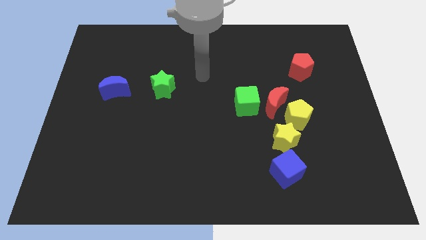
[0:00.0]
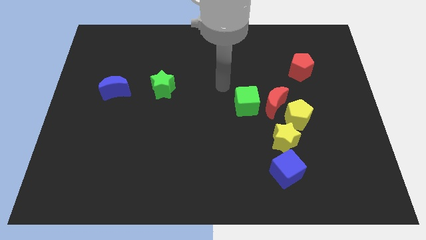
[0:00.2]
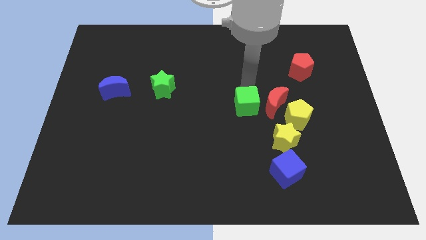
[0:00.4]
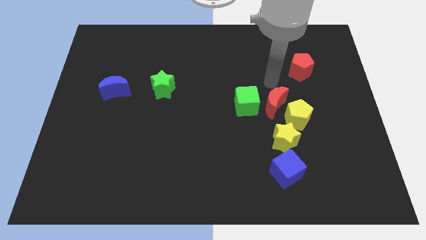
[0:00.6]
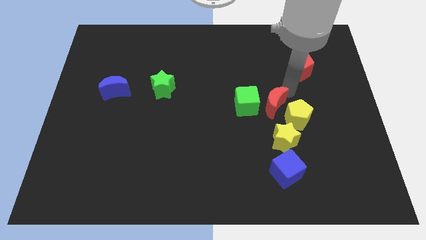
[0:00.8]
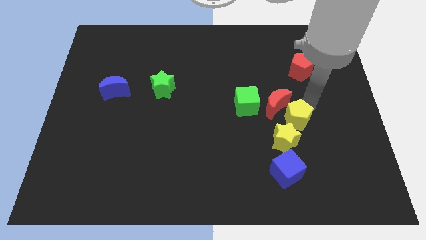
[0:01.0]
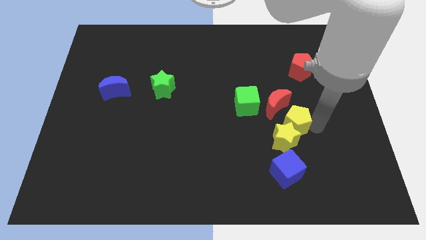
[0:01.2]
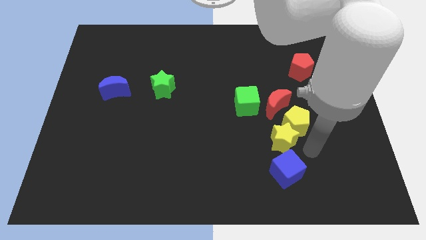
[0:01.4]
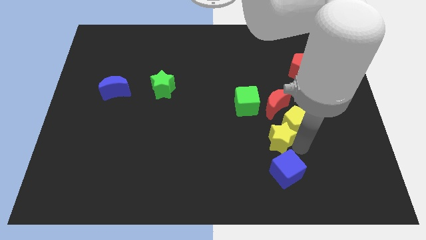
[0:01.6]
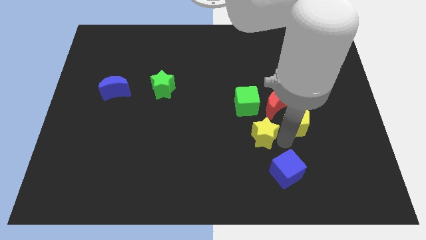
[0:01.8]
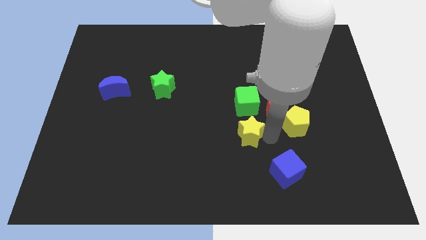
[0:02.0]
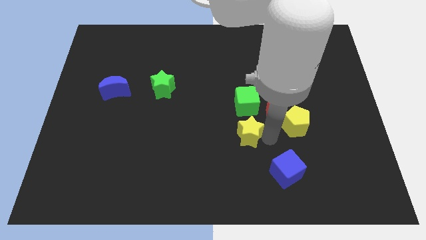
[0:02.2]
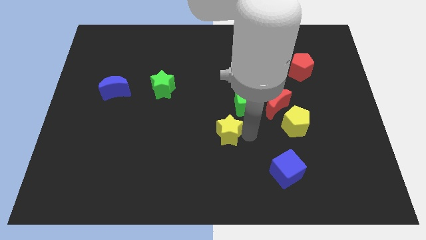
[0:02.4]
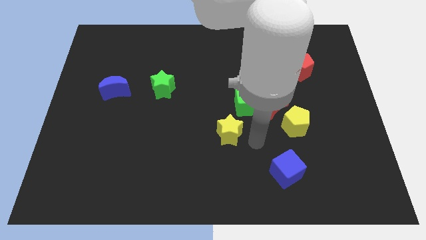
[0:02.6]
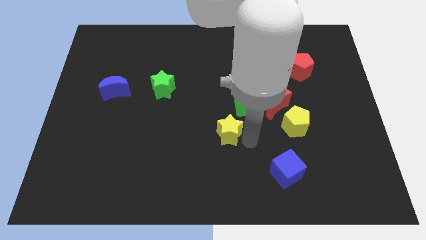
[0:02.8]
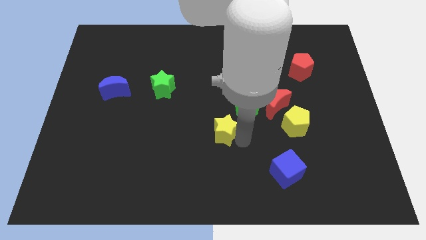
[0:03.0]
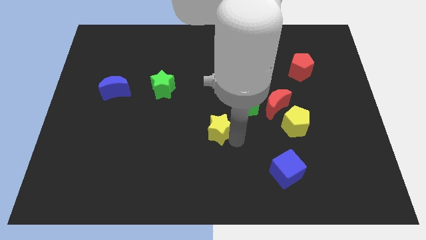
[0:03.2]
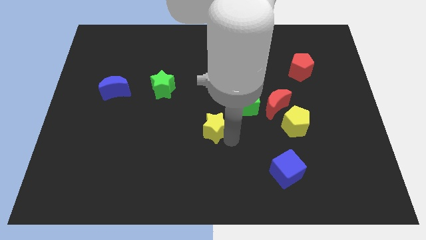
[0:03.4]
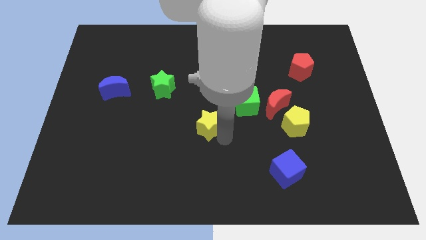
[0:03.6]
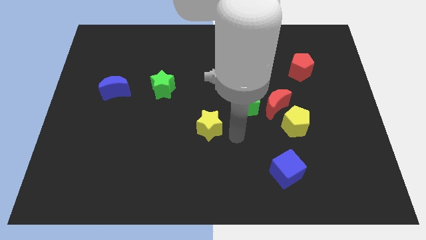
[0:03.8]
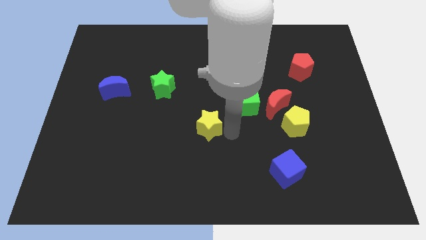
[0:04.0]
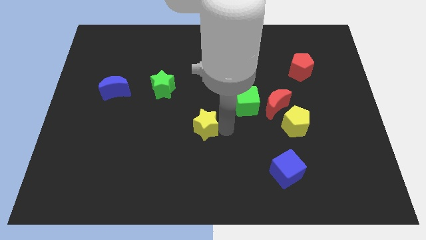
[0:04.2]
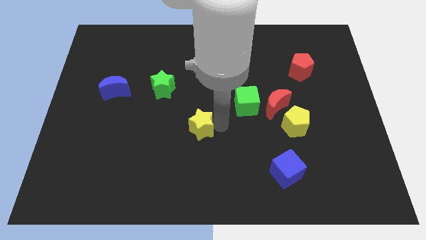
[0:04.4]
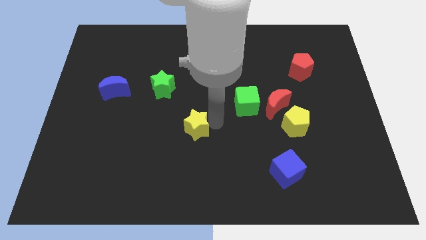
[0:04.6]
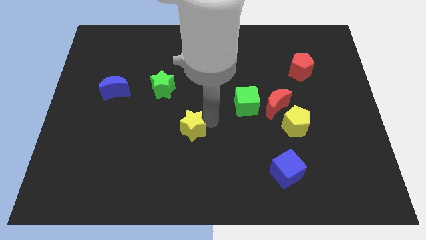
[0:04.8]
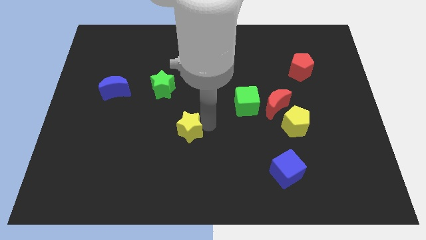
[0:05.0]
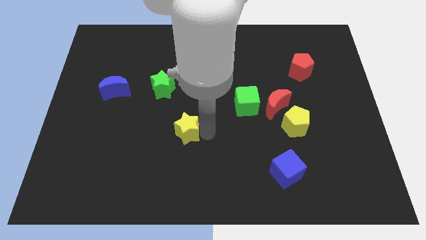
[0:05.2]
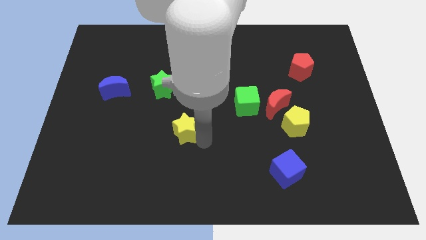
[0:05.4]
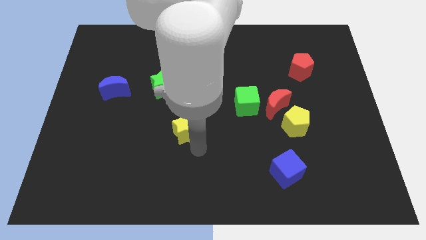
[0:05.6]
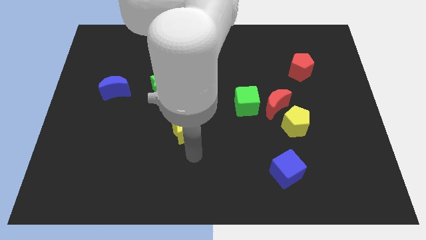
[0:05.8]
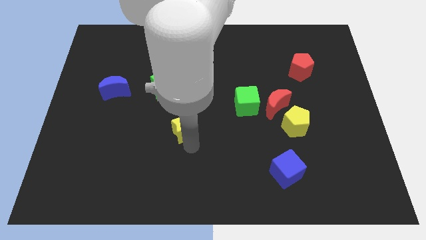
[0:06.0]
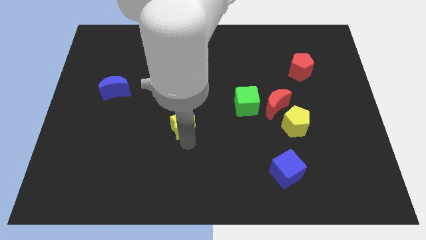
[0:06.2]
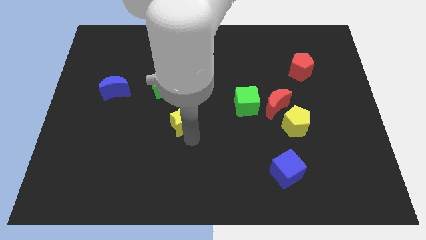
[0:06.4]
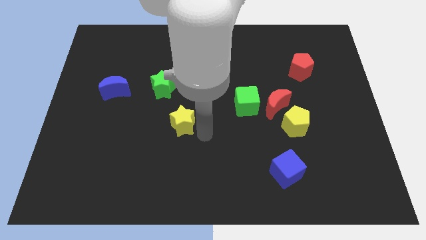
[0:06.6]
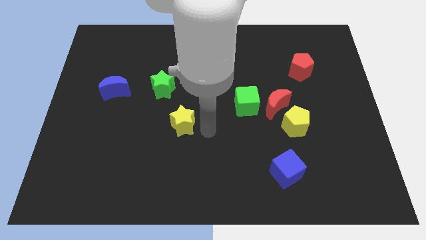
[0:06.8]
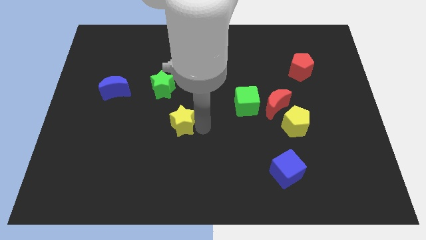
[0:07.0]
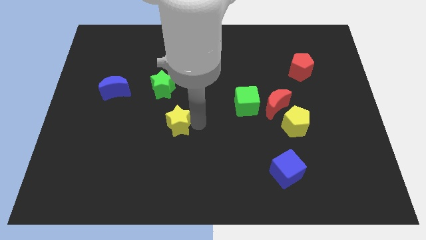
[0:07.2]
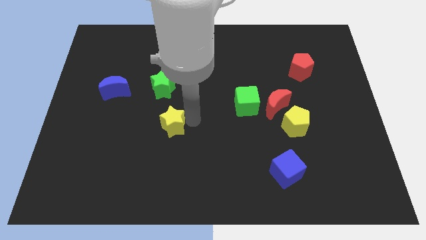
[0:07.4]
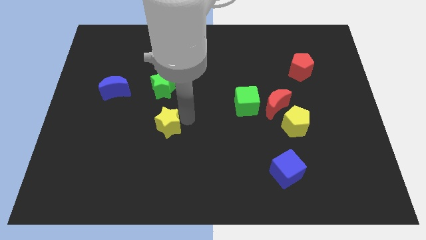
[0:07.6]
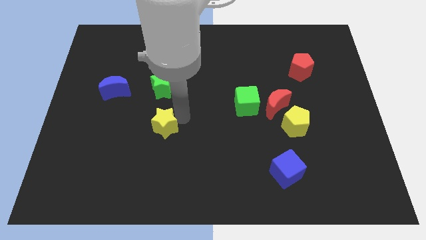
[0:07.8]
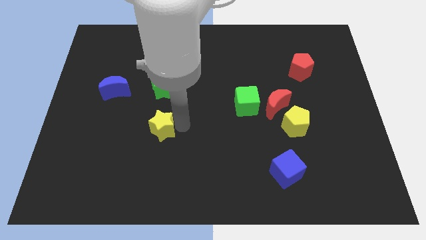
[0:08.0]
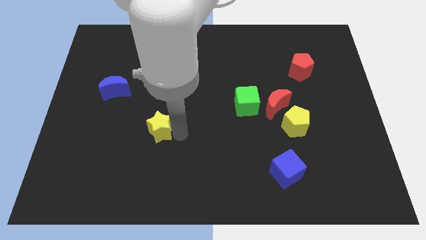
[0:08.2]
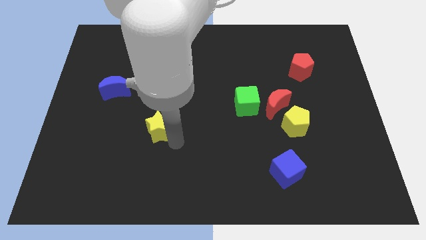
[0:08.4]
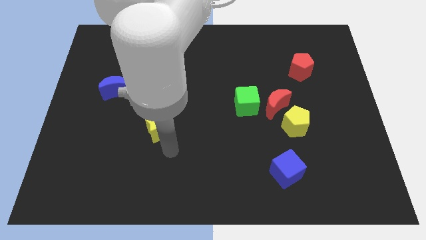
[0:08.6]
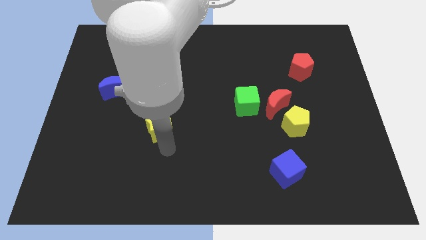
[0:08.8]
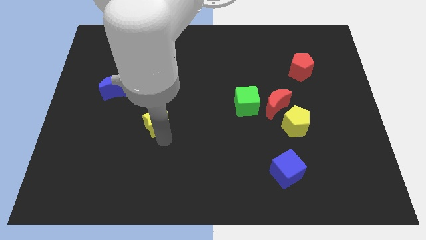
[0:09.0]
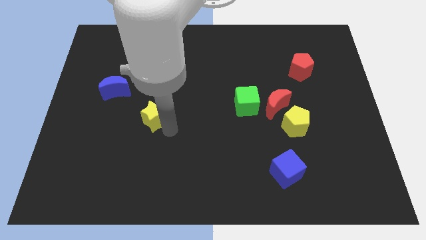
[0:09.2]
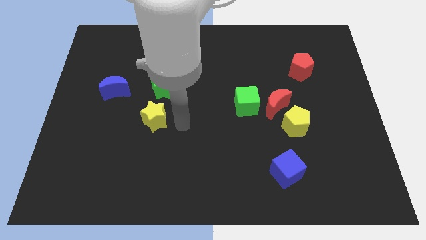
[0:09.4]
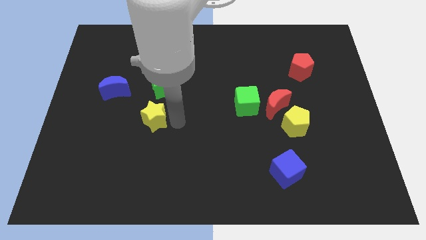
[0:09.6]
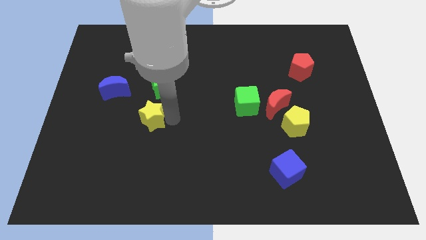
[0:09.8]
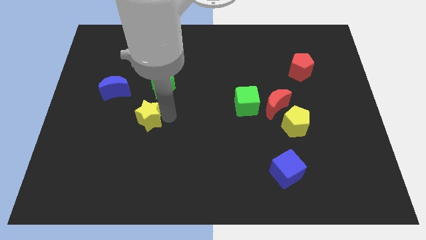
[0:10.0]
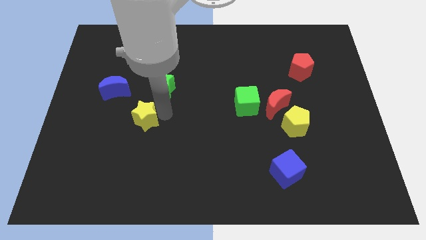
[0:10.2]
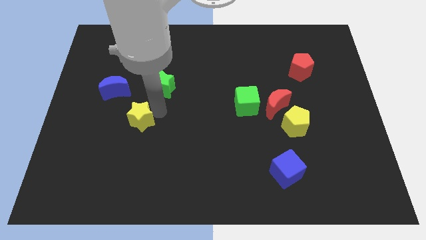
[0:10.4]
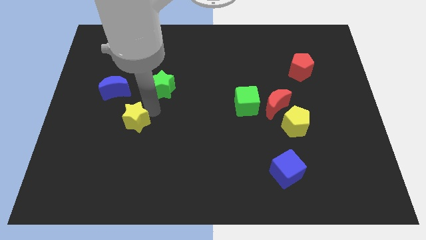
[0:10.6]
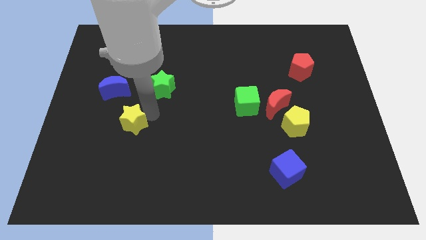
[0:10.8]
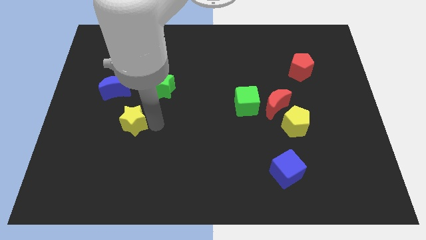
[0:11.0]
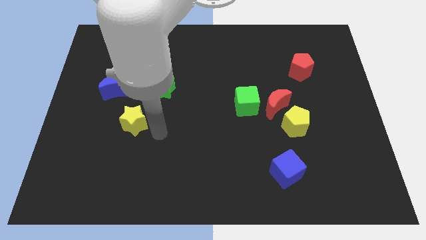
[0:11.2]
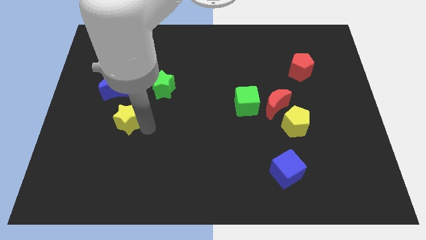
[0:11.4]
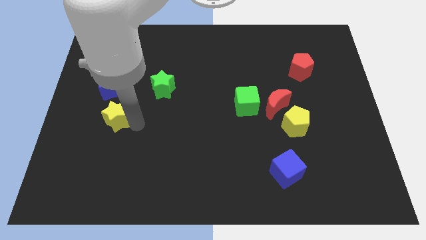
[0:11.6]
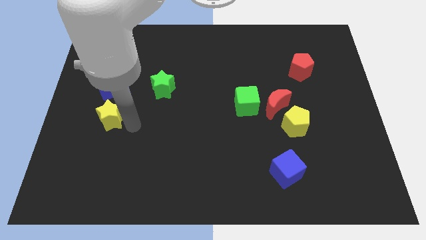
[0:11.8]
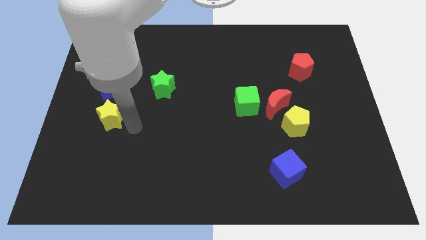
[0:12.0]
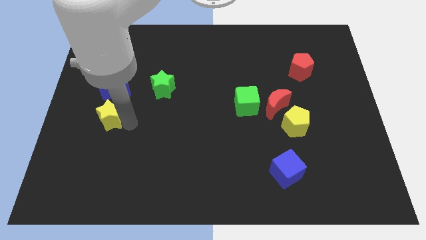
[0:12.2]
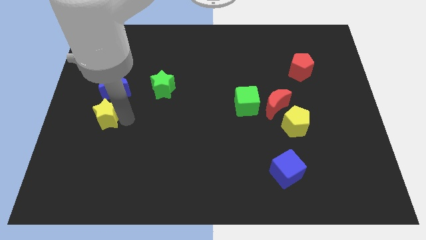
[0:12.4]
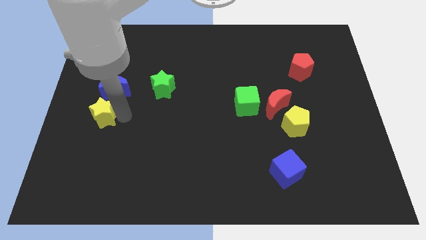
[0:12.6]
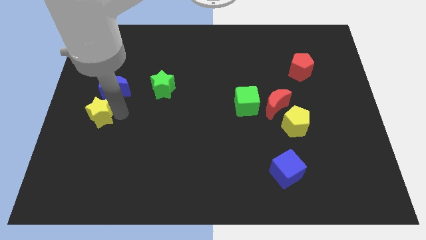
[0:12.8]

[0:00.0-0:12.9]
push the yellow star to the center left
